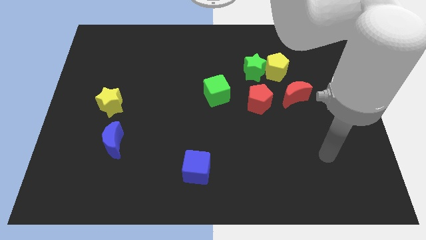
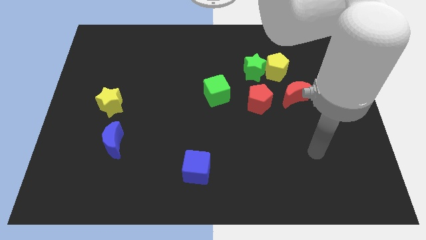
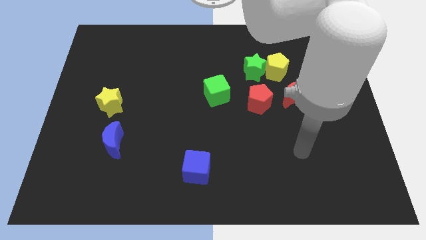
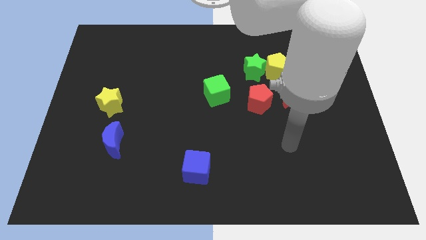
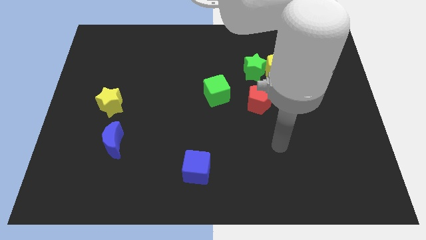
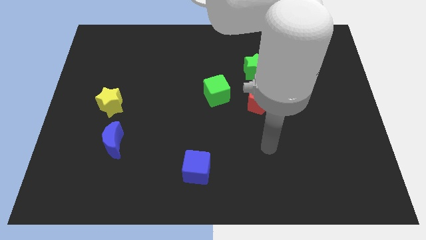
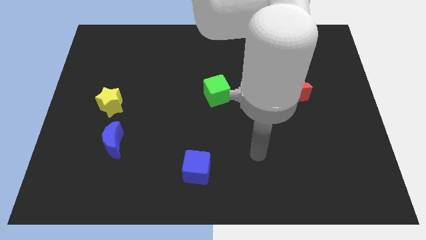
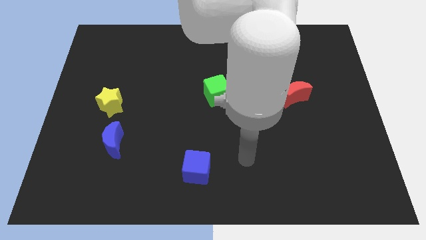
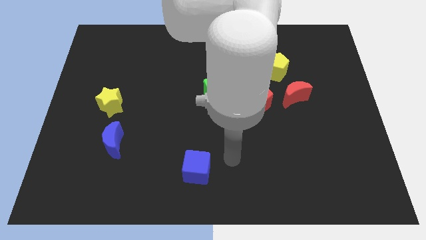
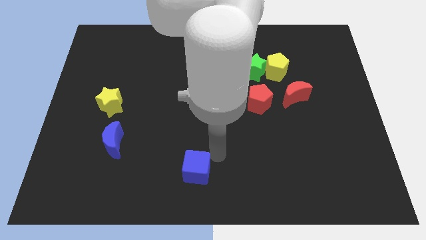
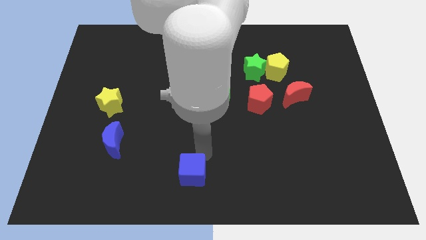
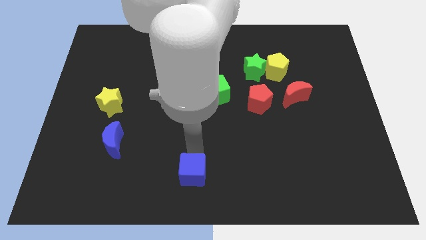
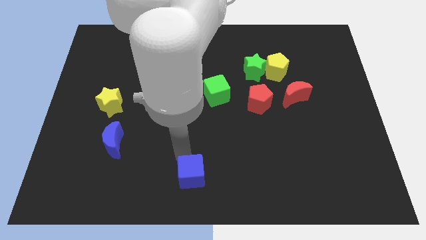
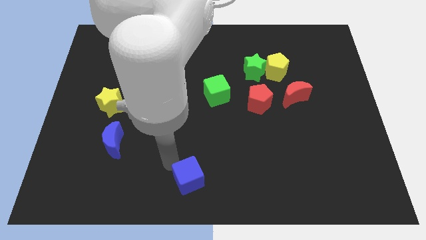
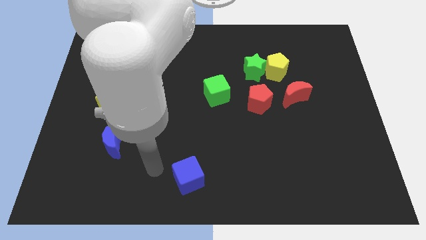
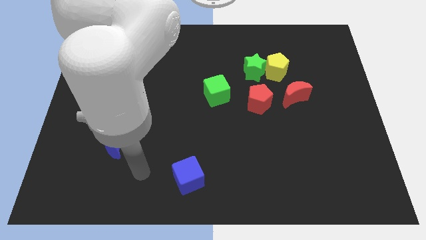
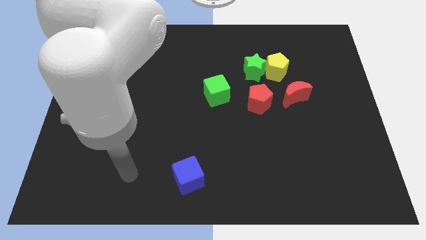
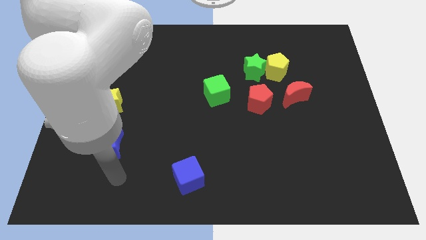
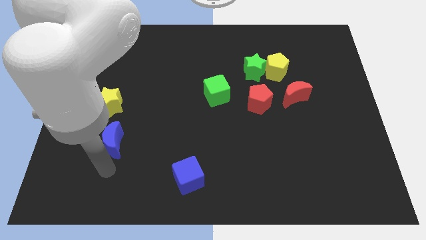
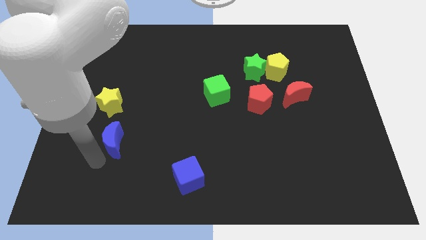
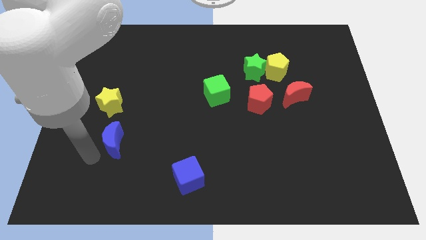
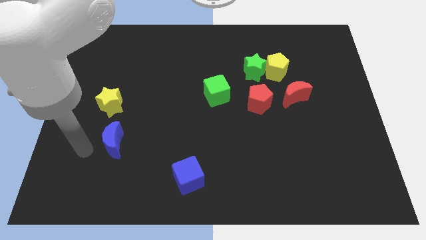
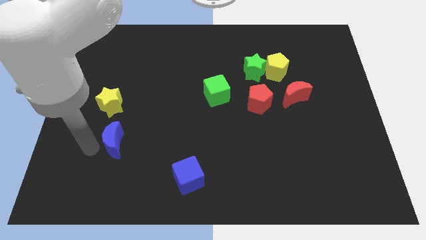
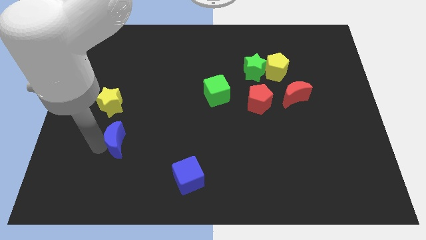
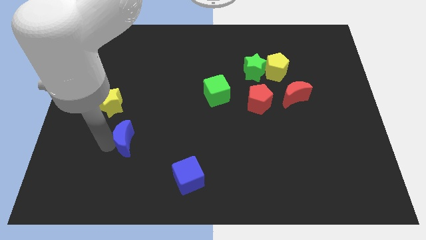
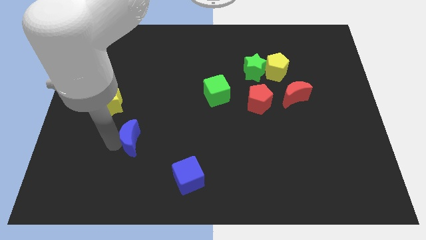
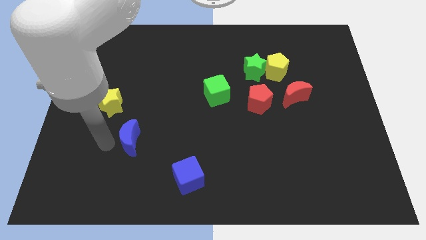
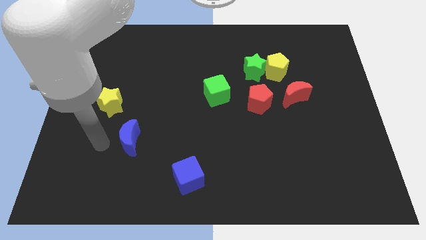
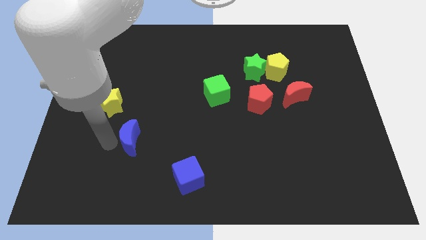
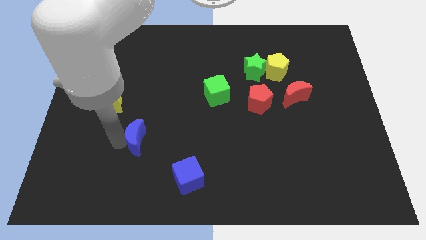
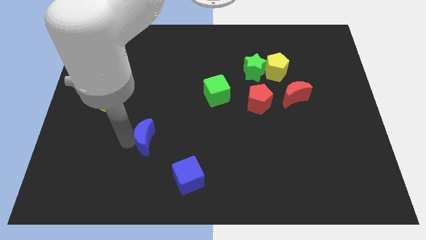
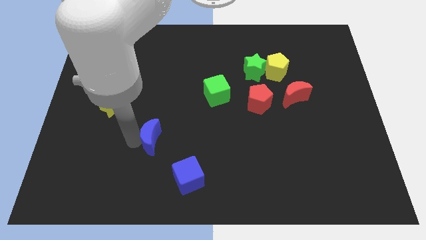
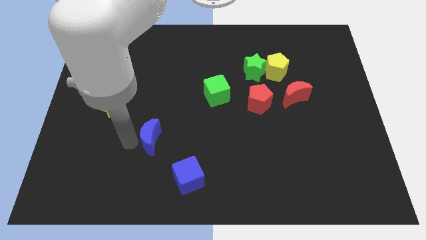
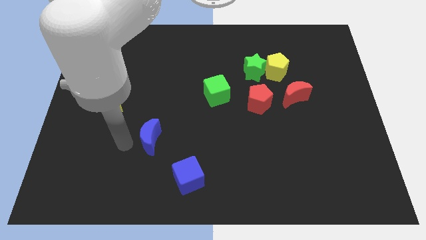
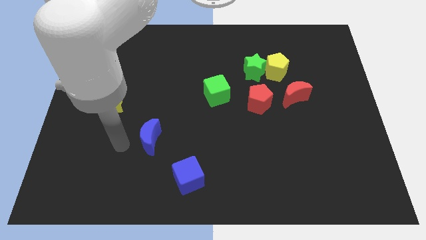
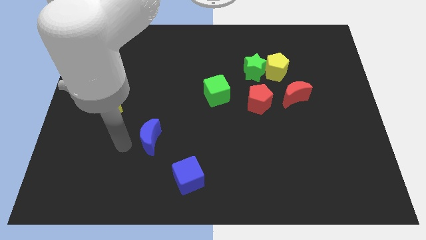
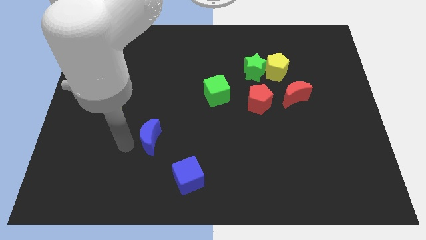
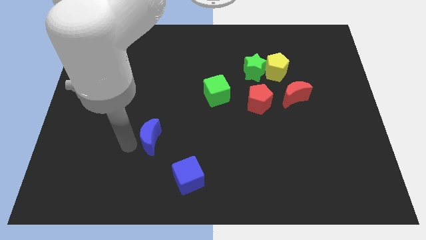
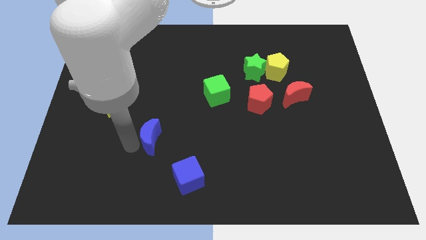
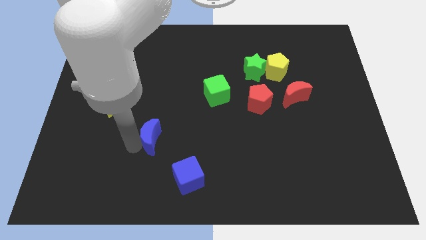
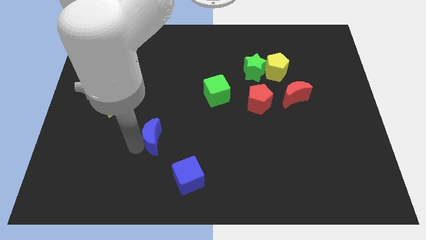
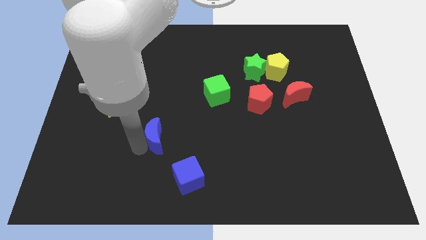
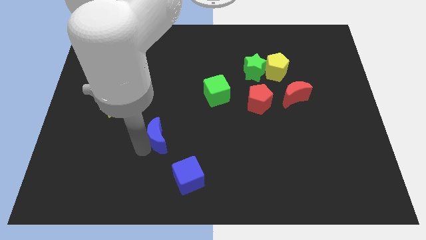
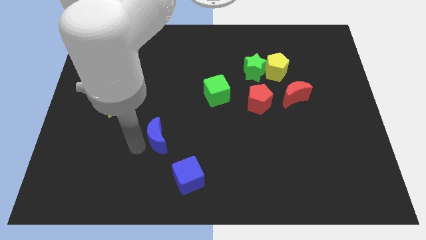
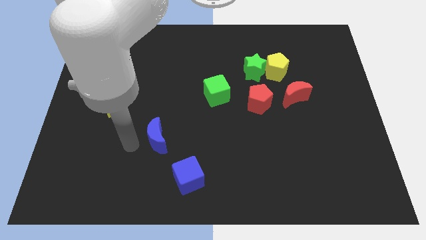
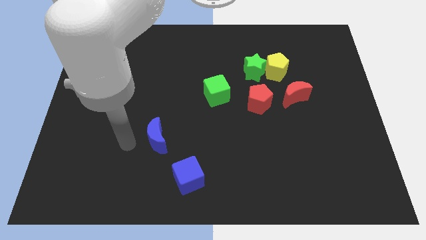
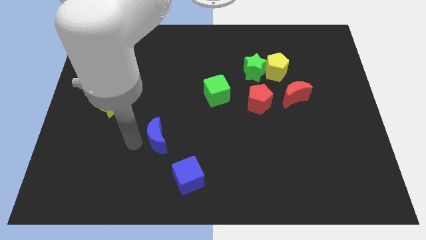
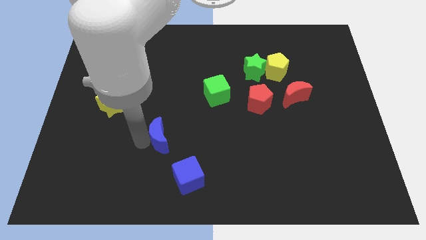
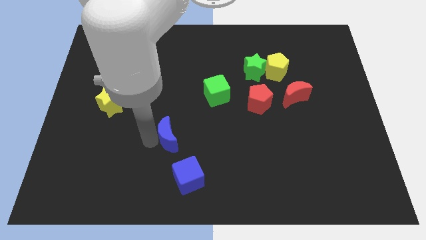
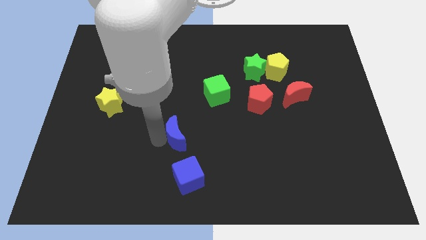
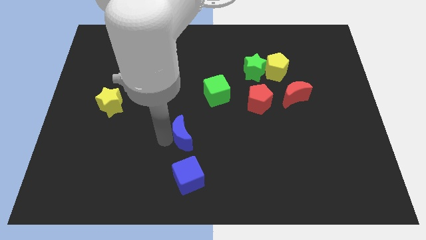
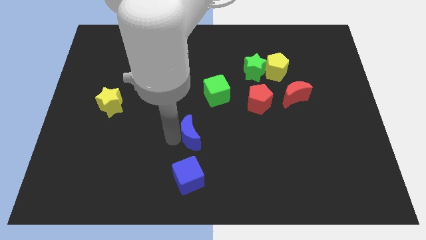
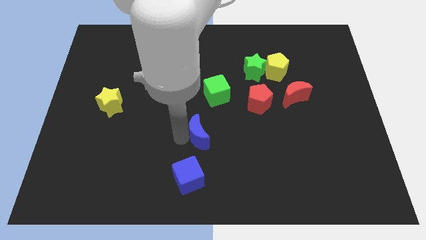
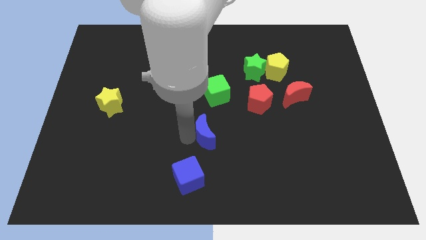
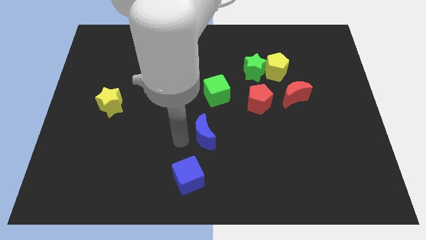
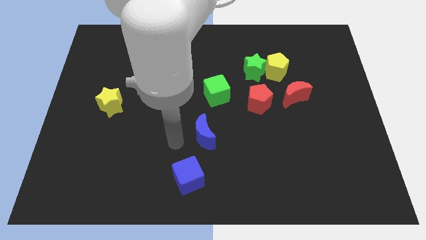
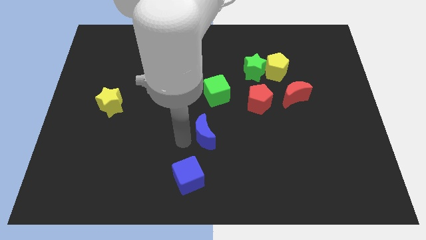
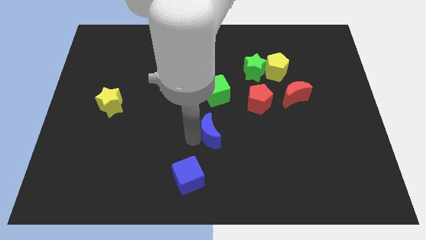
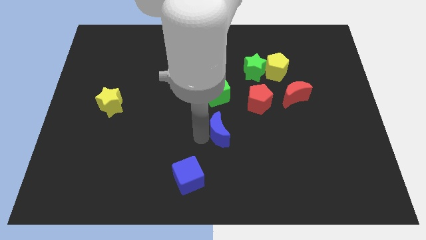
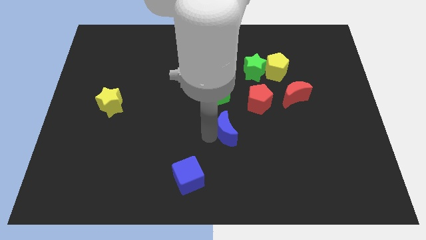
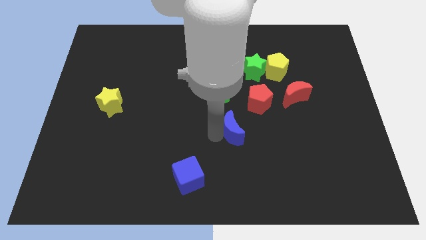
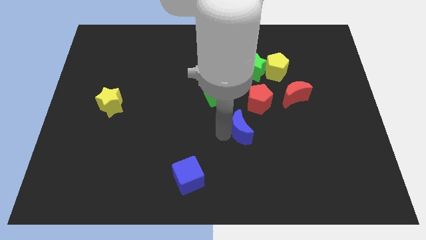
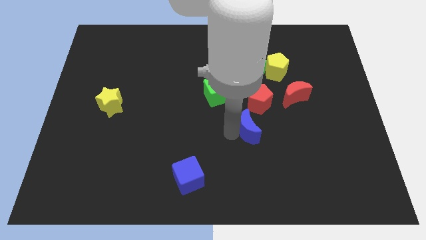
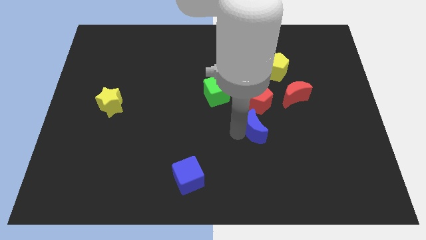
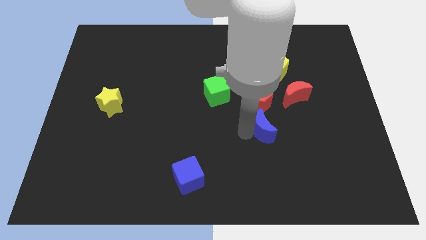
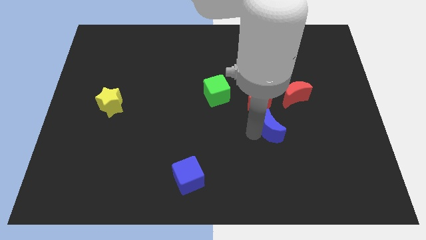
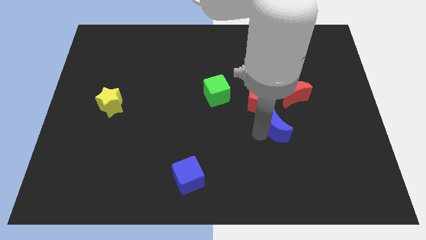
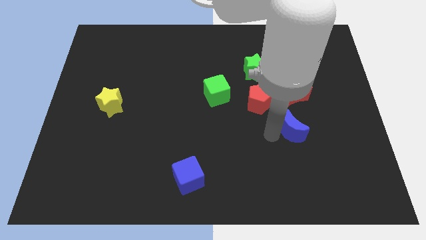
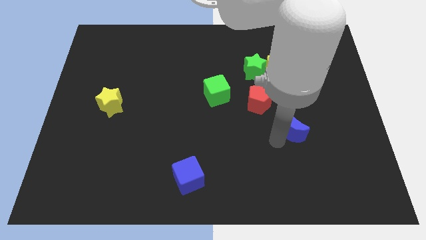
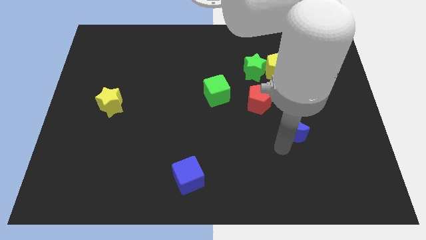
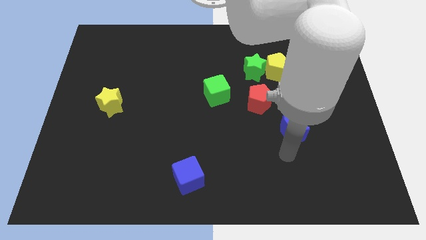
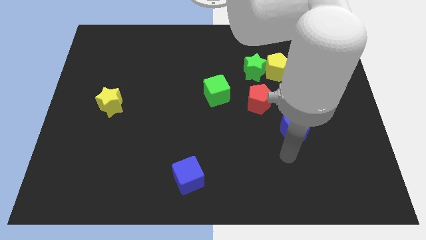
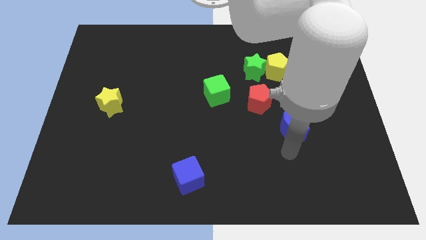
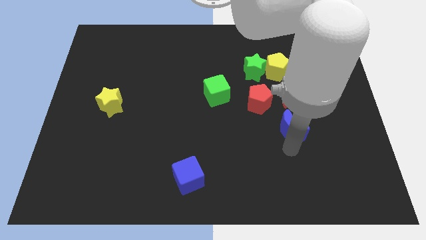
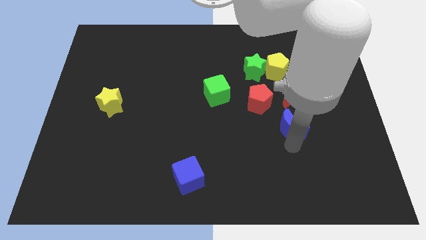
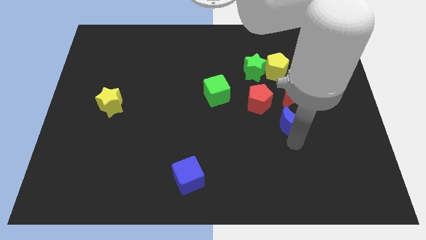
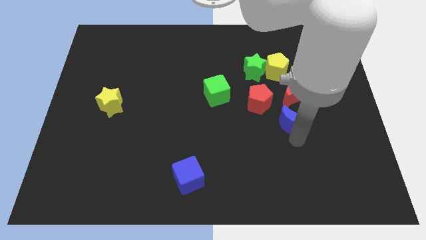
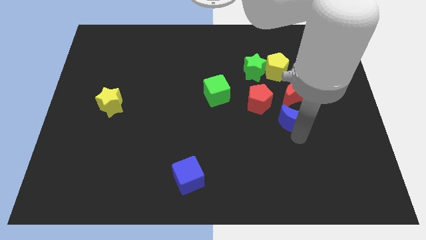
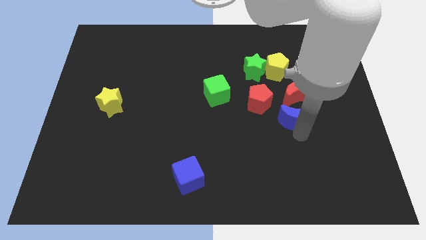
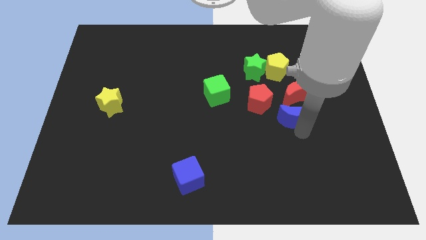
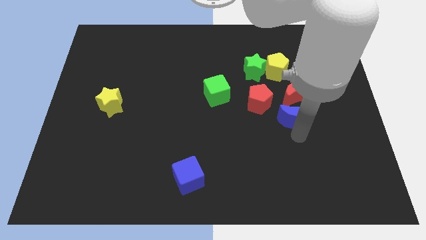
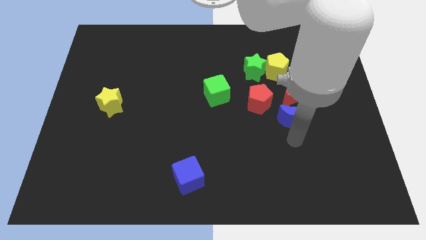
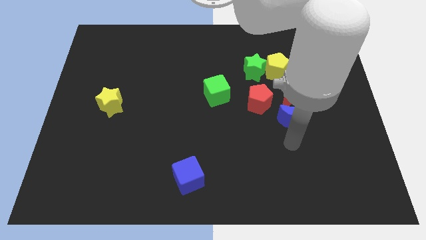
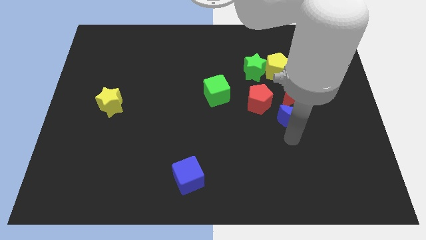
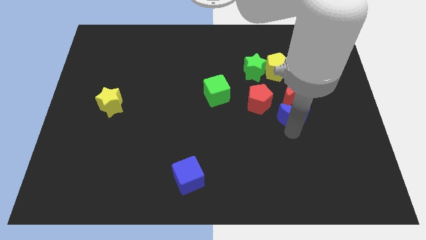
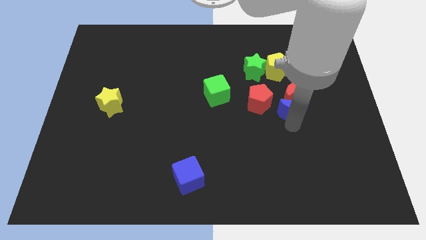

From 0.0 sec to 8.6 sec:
move the blue moon next to the red moon
